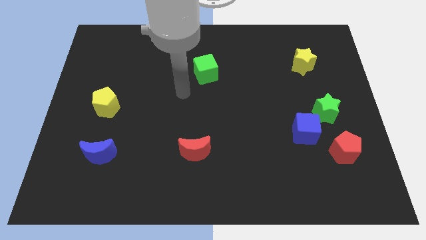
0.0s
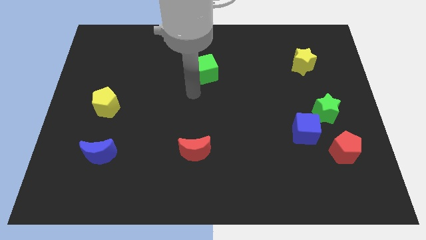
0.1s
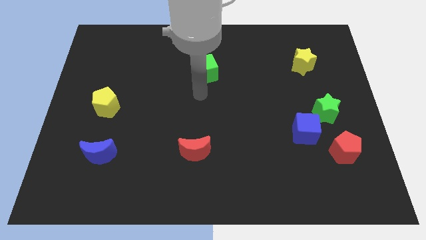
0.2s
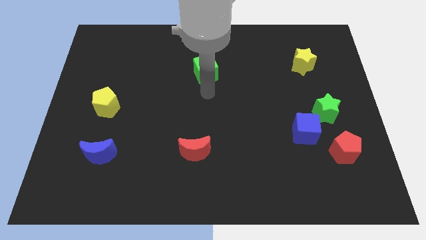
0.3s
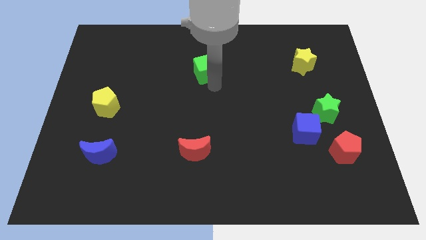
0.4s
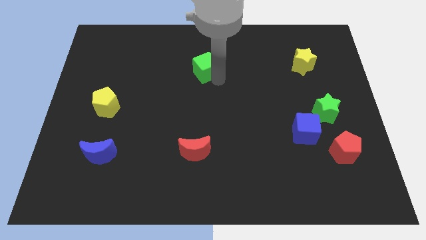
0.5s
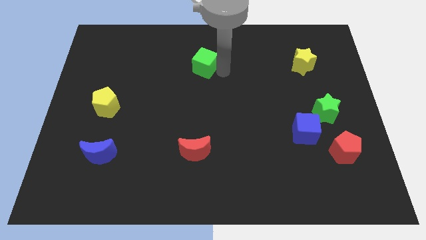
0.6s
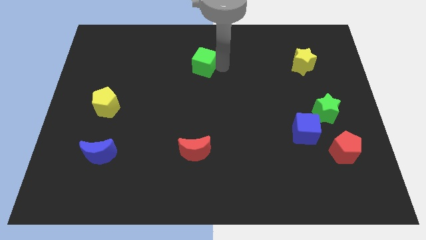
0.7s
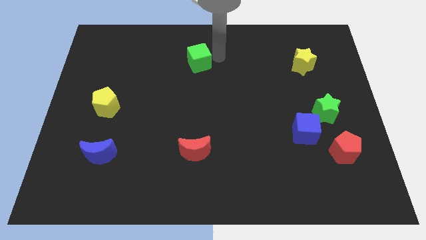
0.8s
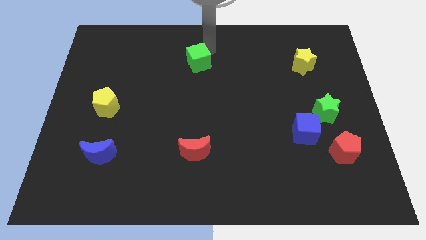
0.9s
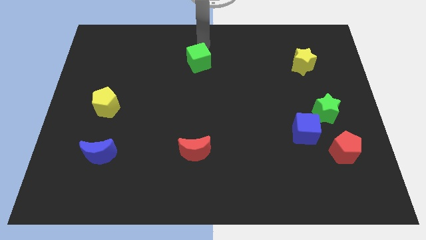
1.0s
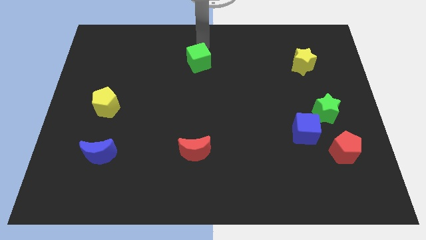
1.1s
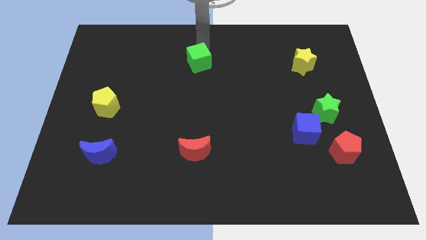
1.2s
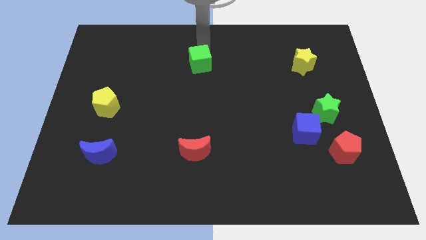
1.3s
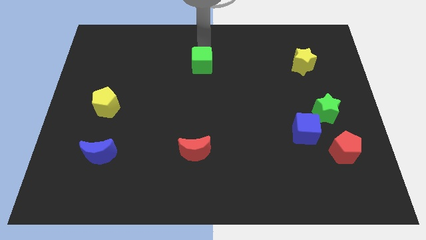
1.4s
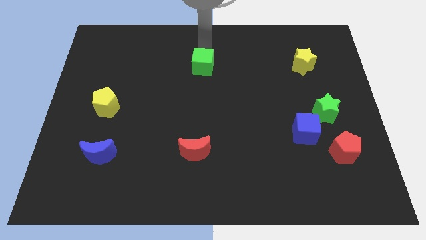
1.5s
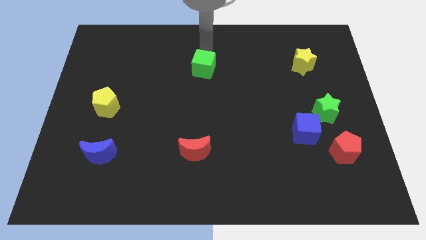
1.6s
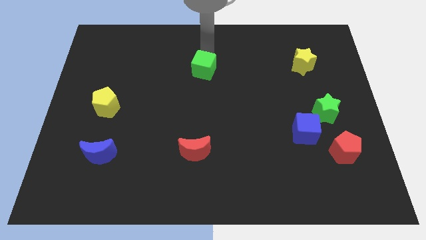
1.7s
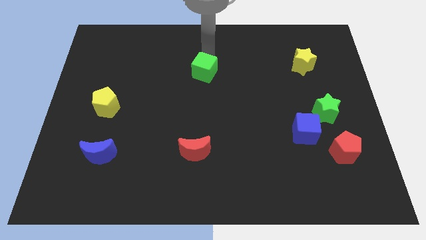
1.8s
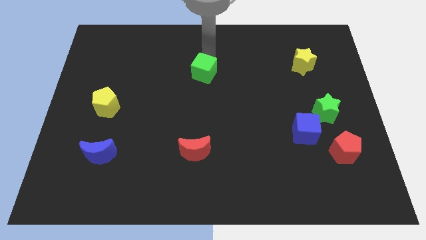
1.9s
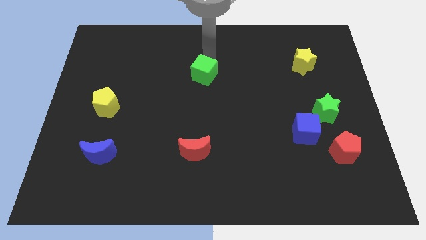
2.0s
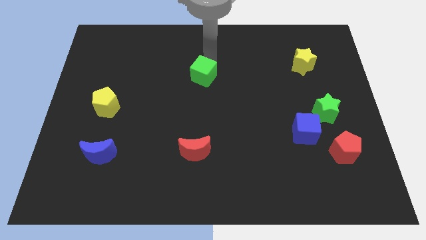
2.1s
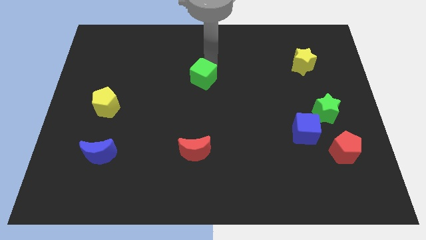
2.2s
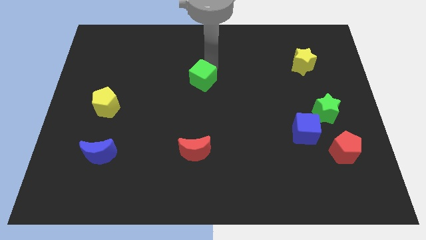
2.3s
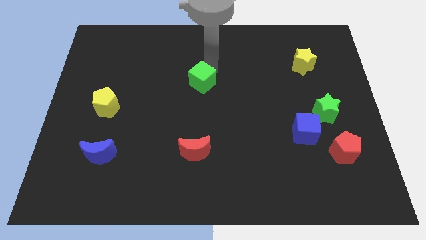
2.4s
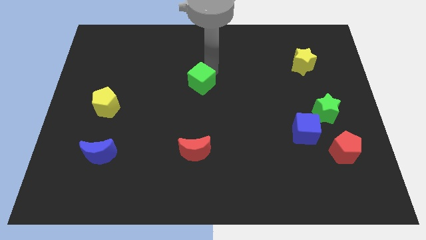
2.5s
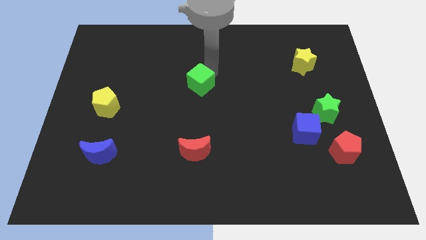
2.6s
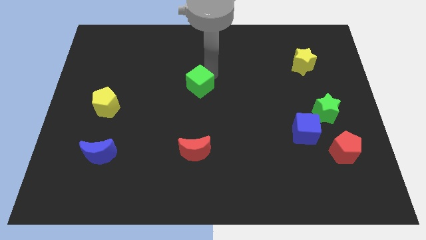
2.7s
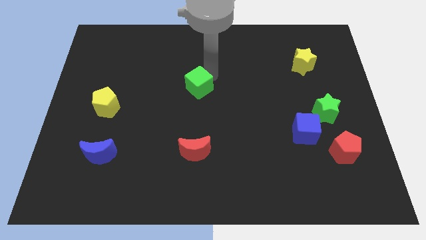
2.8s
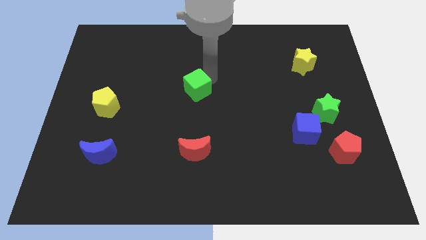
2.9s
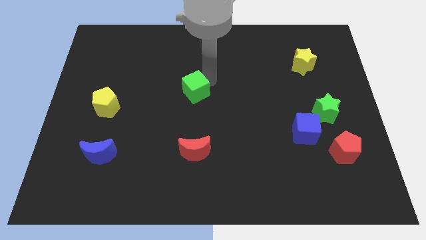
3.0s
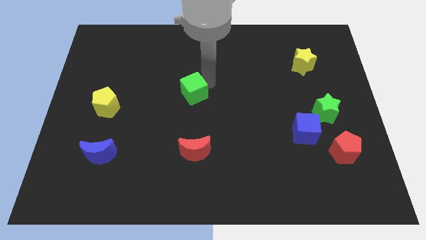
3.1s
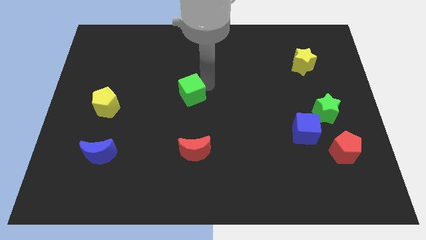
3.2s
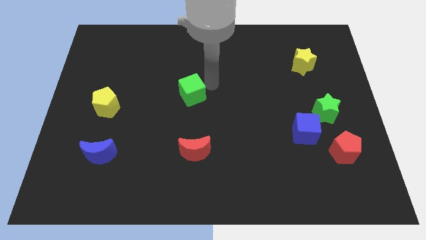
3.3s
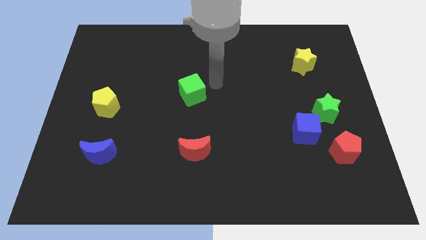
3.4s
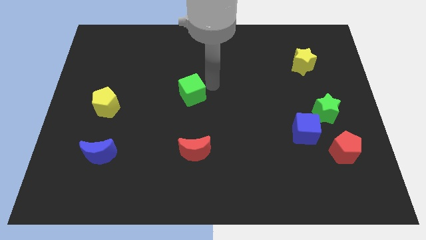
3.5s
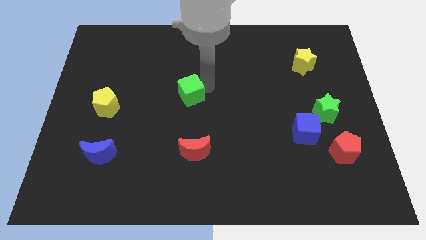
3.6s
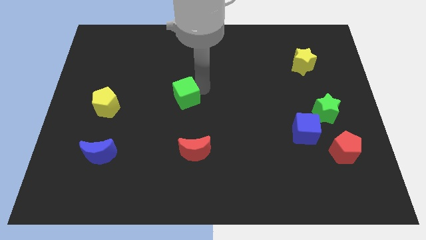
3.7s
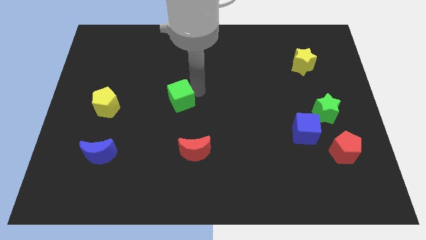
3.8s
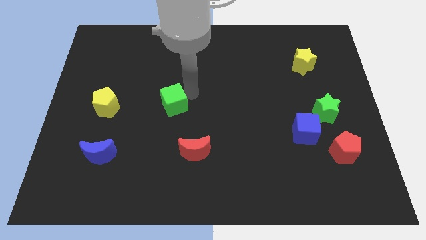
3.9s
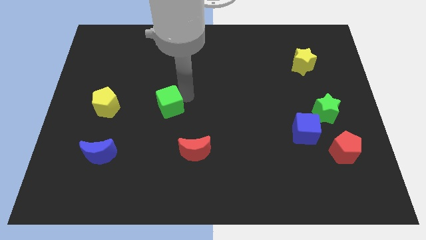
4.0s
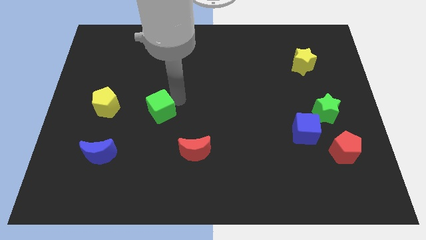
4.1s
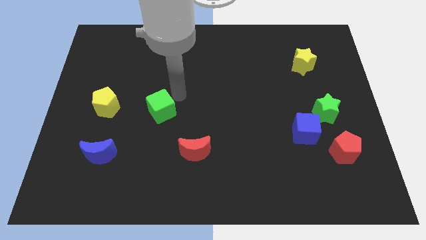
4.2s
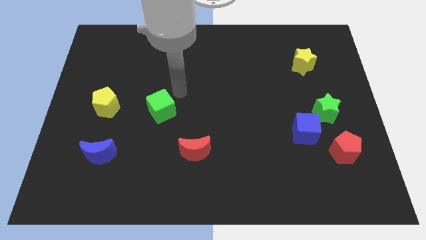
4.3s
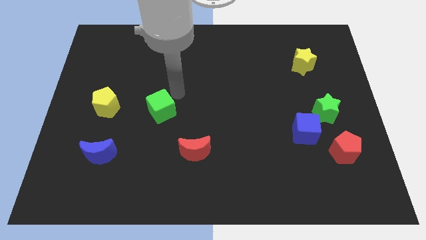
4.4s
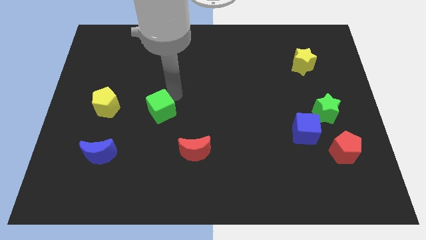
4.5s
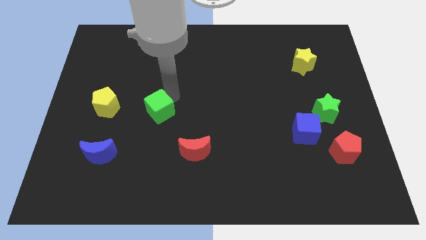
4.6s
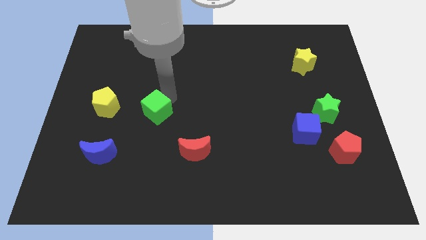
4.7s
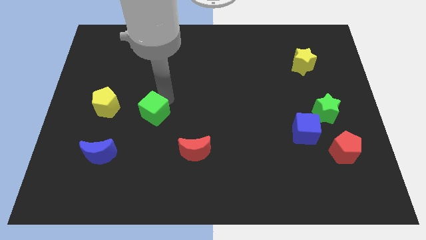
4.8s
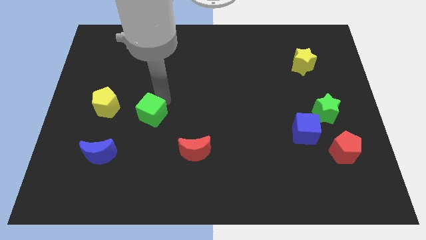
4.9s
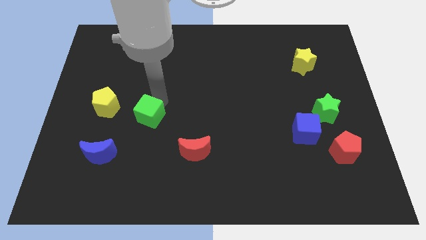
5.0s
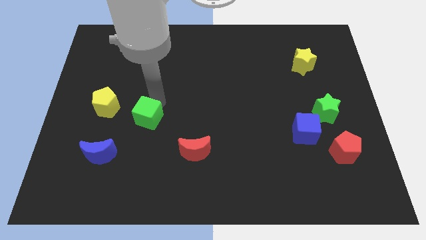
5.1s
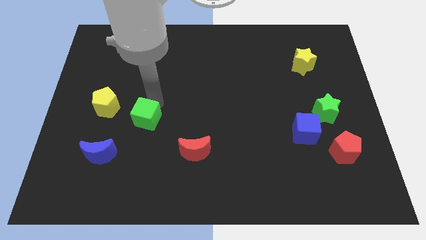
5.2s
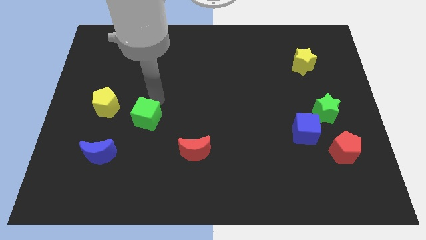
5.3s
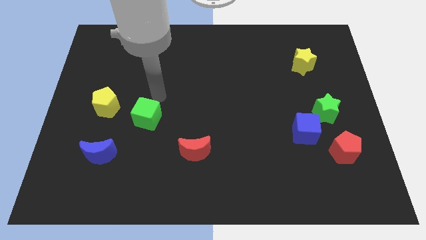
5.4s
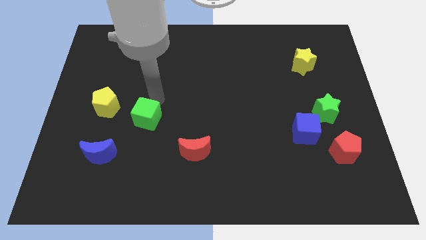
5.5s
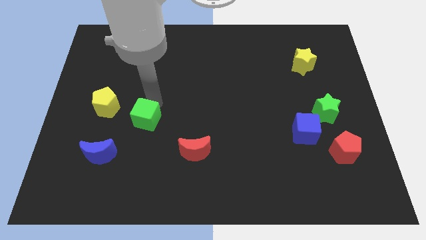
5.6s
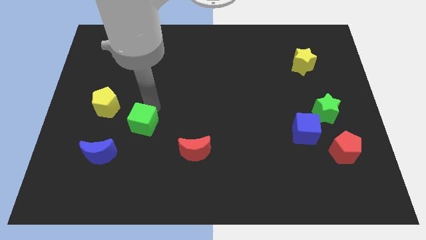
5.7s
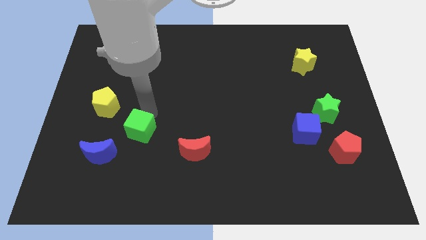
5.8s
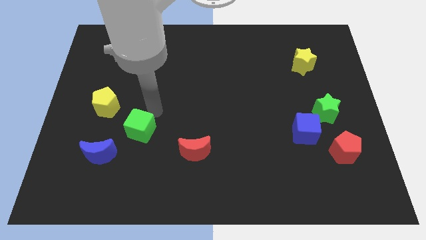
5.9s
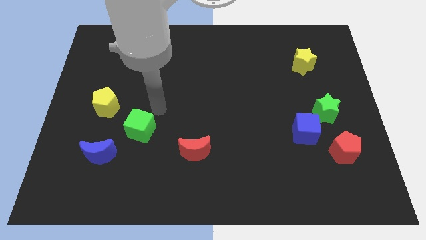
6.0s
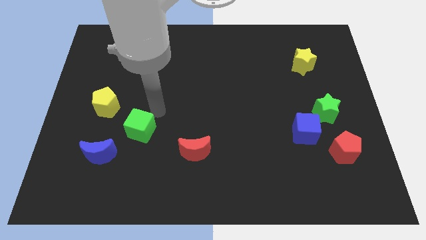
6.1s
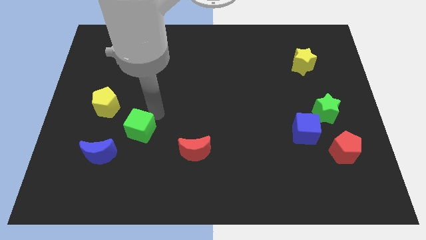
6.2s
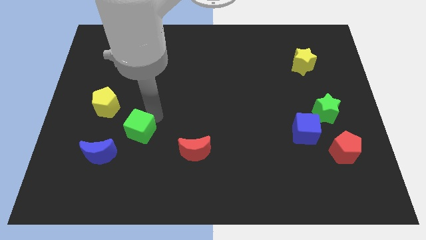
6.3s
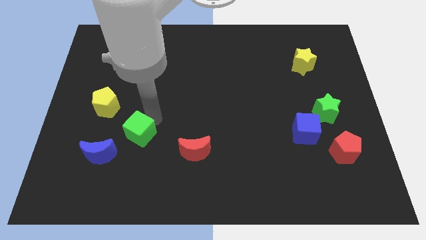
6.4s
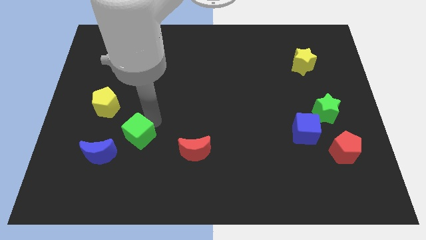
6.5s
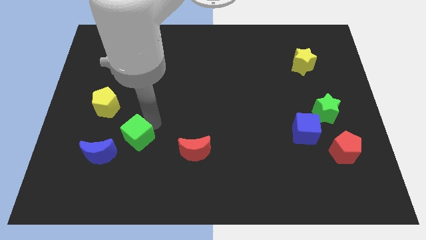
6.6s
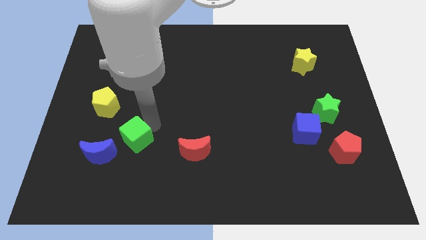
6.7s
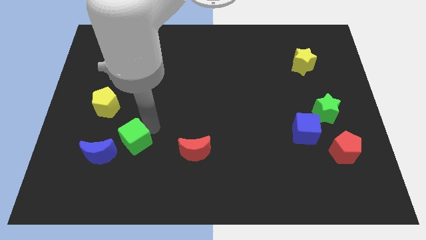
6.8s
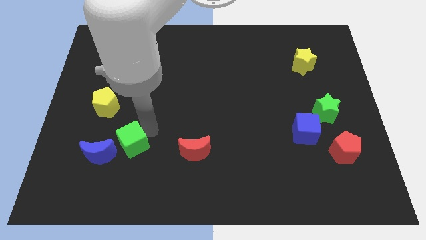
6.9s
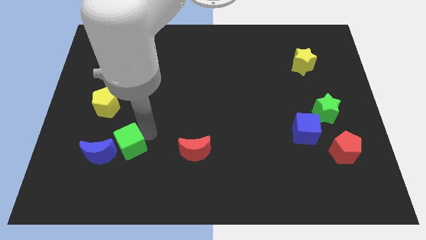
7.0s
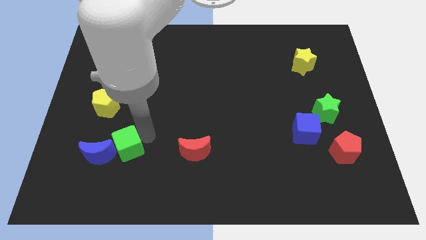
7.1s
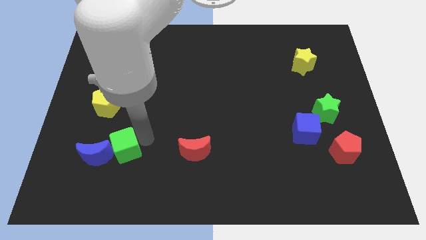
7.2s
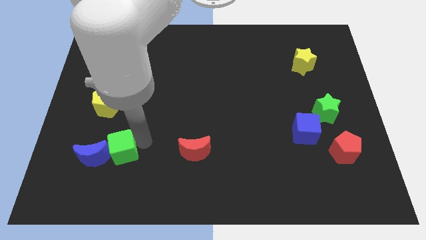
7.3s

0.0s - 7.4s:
move the green cube next to the blue moon
